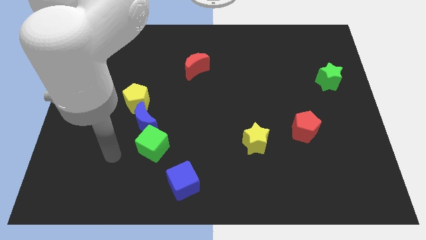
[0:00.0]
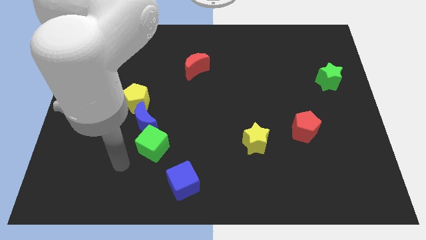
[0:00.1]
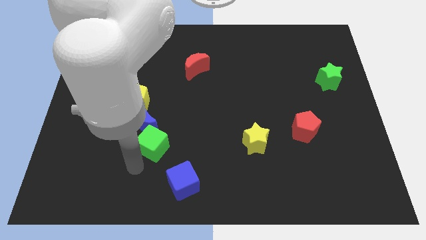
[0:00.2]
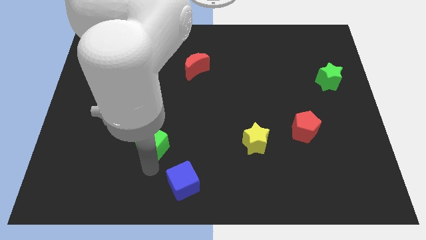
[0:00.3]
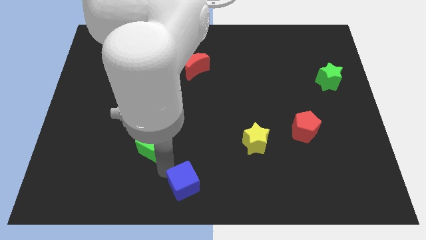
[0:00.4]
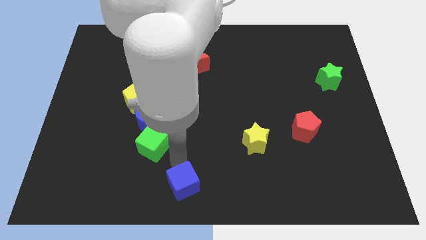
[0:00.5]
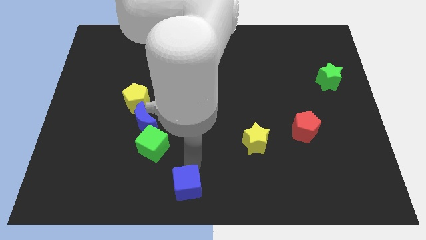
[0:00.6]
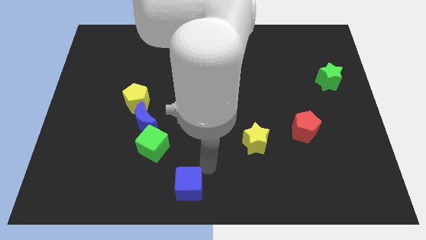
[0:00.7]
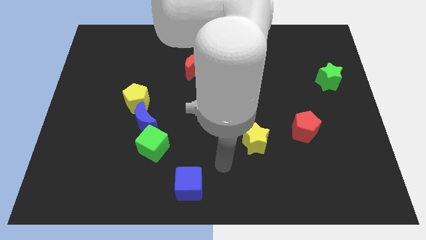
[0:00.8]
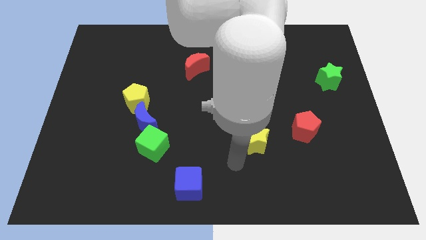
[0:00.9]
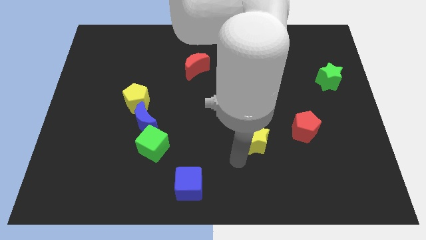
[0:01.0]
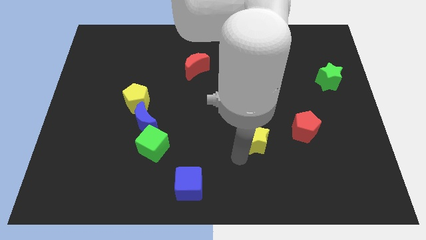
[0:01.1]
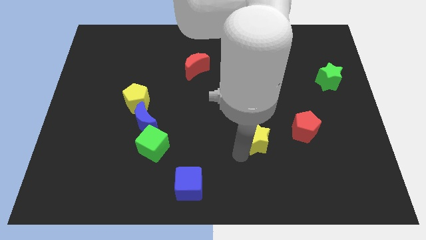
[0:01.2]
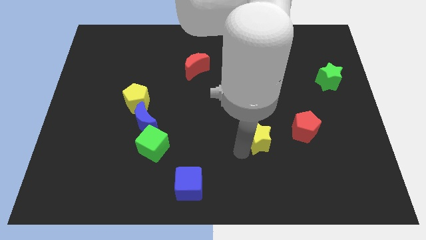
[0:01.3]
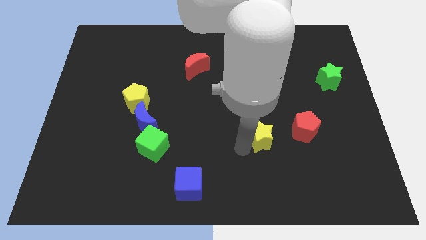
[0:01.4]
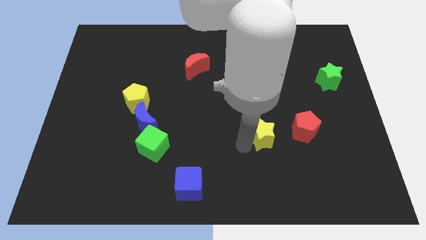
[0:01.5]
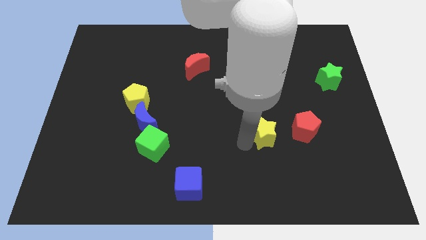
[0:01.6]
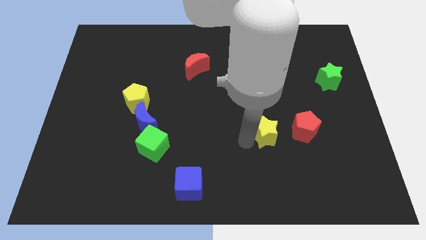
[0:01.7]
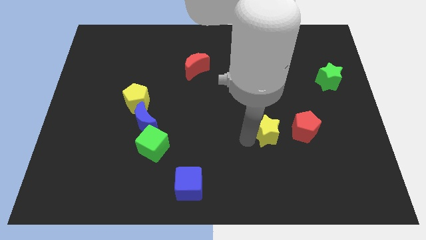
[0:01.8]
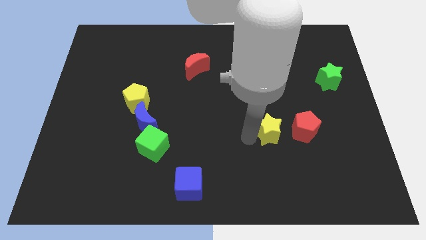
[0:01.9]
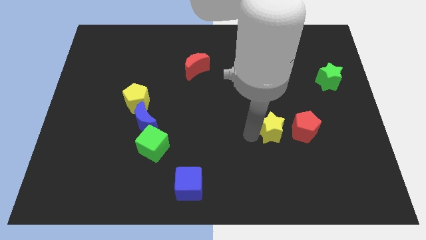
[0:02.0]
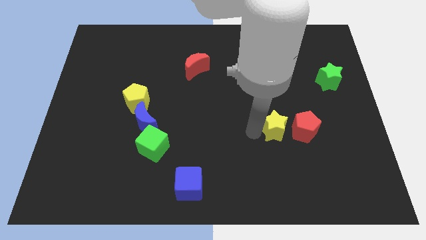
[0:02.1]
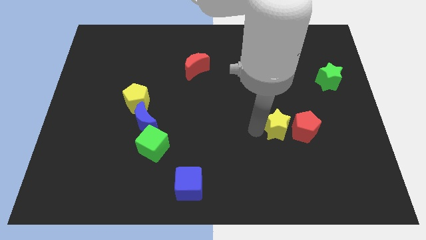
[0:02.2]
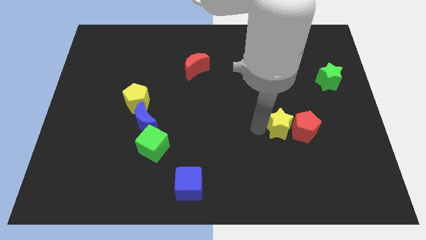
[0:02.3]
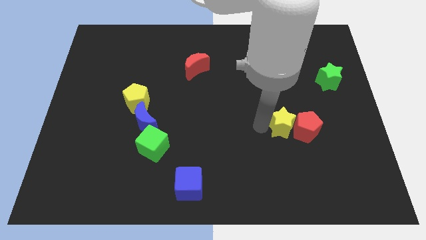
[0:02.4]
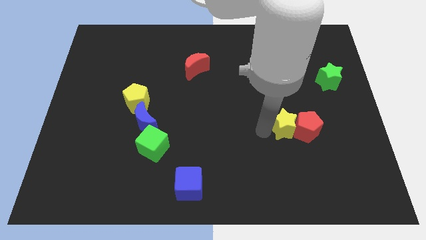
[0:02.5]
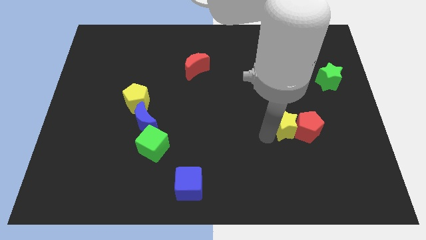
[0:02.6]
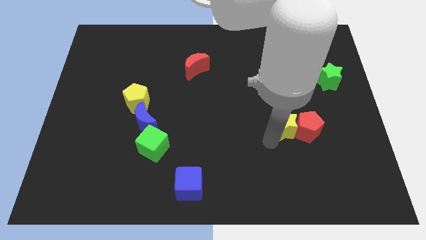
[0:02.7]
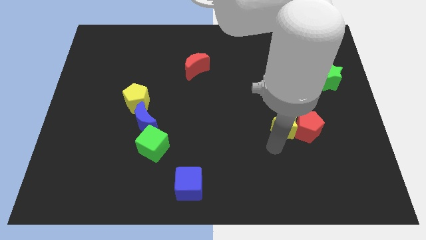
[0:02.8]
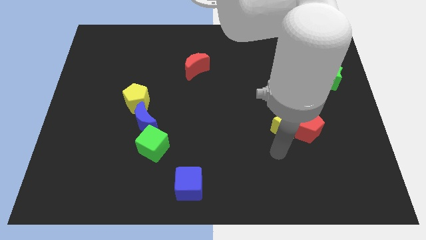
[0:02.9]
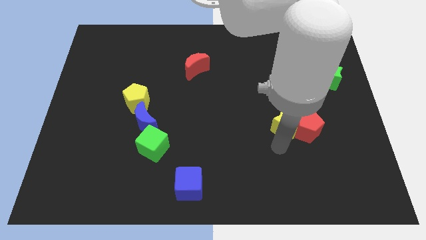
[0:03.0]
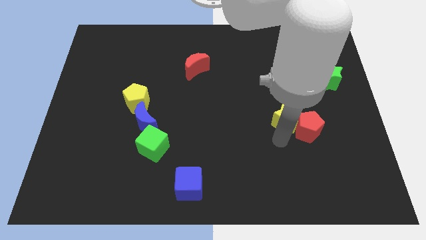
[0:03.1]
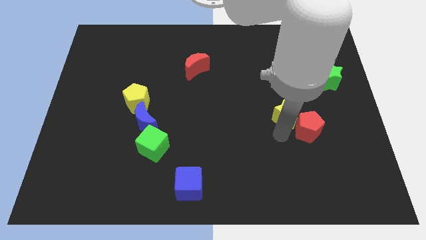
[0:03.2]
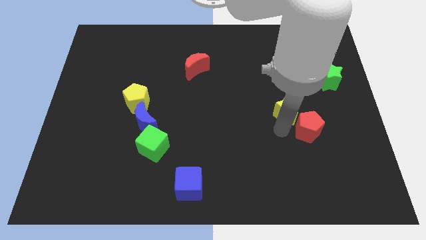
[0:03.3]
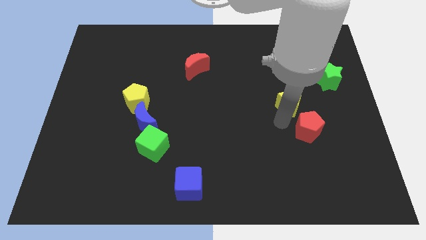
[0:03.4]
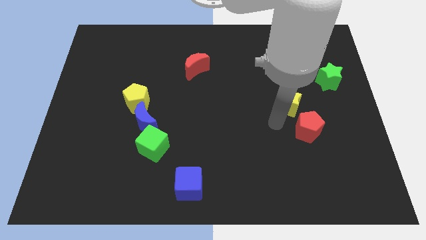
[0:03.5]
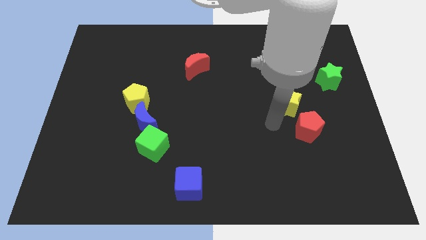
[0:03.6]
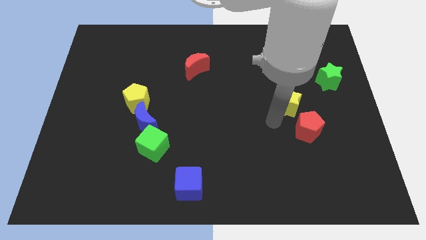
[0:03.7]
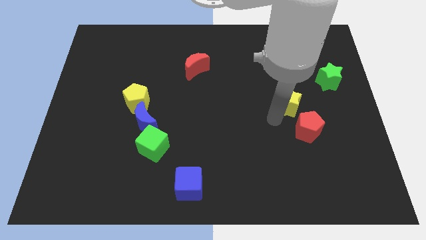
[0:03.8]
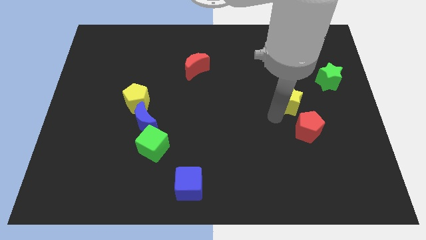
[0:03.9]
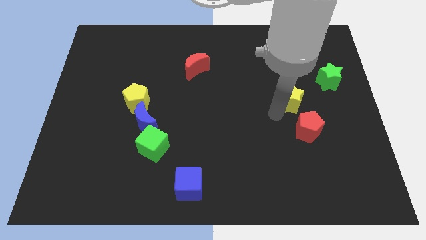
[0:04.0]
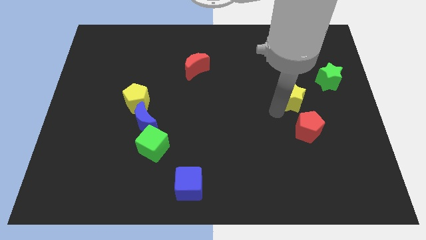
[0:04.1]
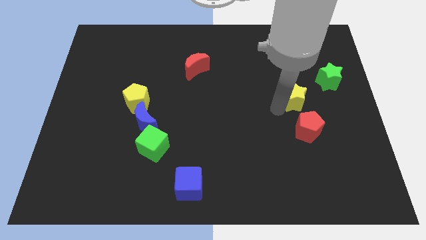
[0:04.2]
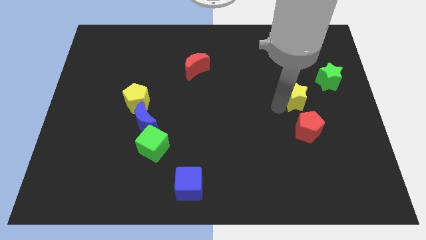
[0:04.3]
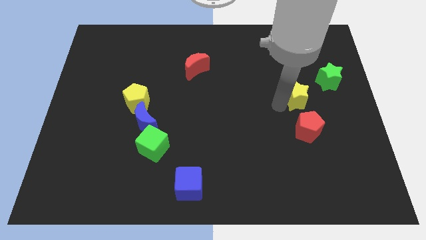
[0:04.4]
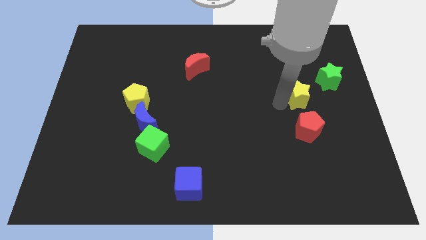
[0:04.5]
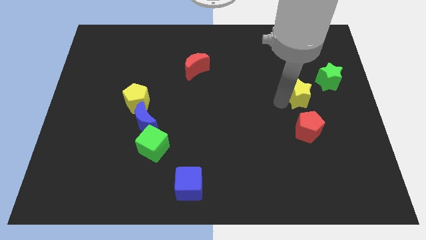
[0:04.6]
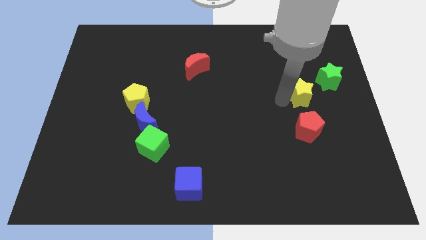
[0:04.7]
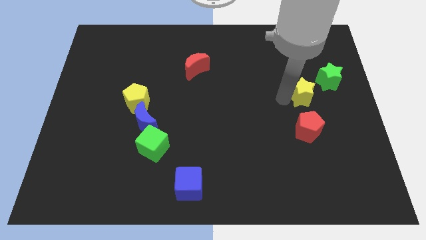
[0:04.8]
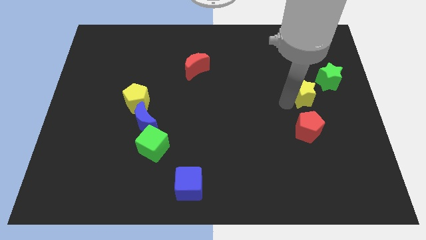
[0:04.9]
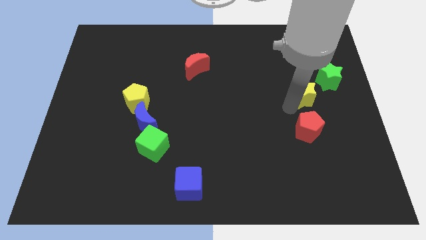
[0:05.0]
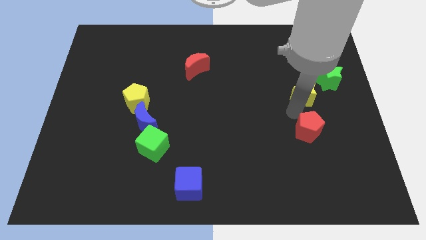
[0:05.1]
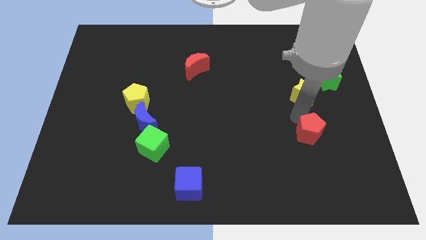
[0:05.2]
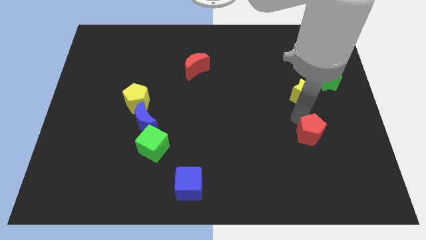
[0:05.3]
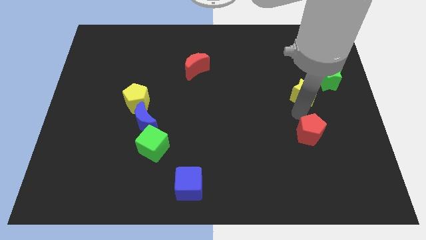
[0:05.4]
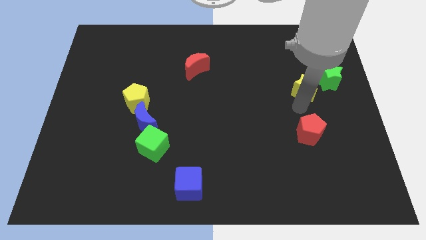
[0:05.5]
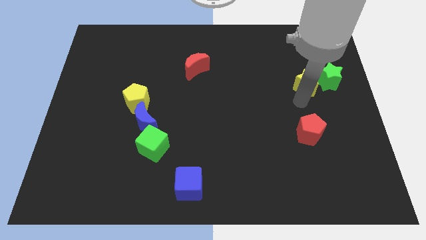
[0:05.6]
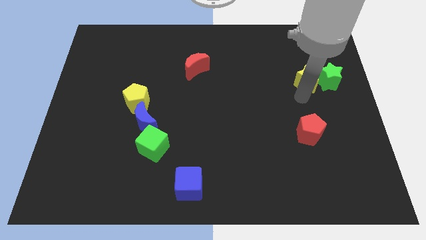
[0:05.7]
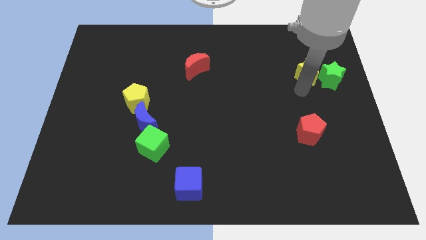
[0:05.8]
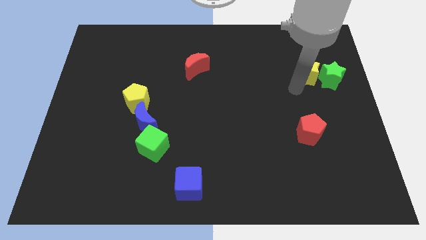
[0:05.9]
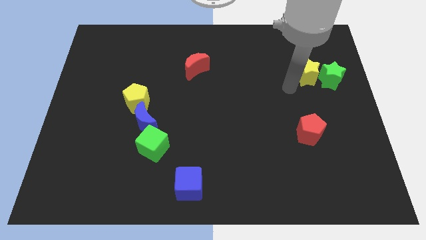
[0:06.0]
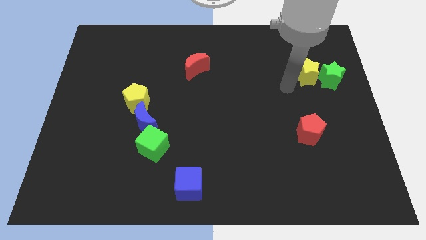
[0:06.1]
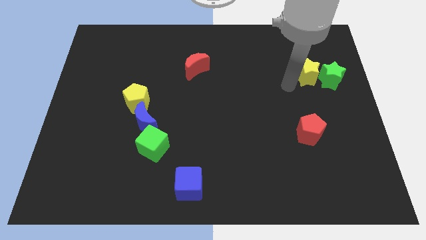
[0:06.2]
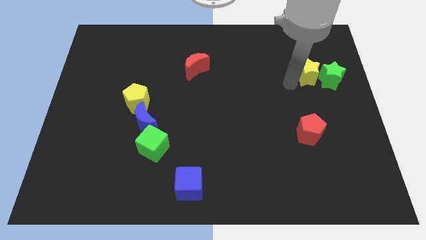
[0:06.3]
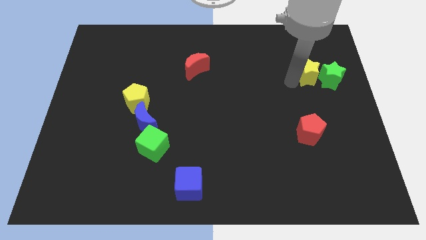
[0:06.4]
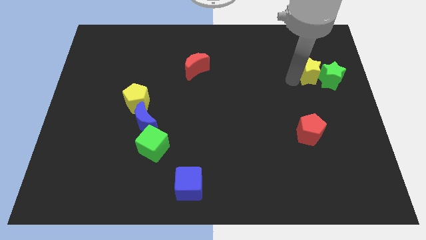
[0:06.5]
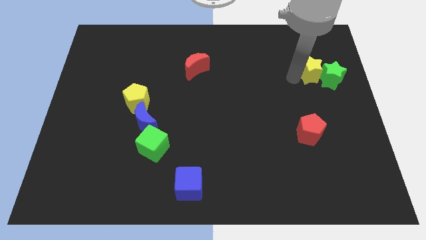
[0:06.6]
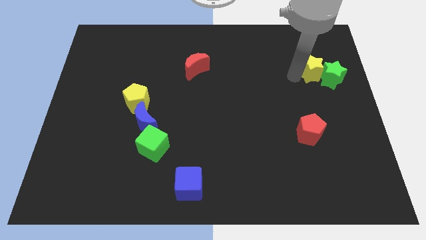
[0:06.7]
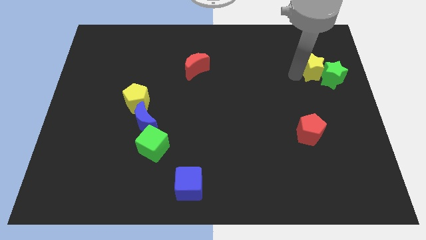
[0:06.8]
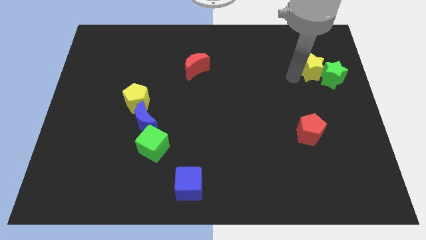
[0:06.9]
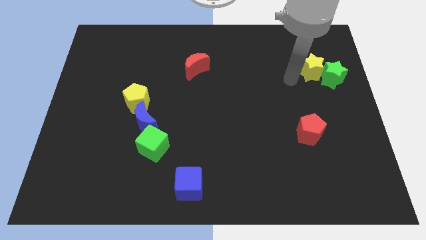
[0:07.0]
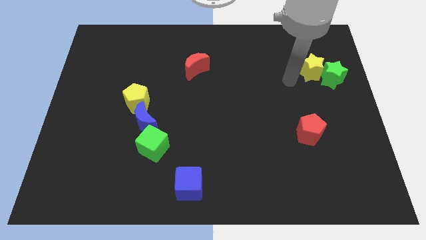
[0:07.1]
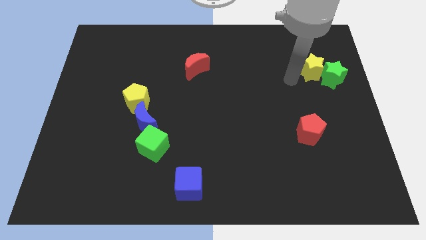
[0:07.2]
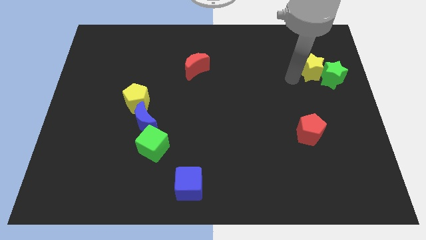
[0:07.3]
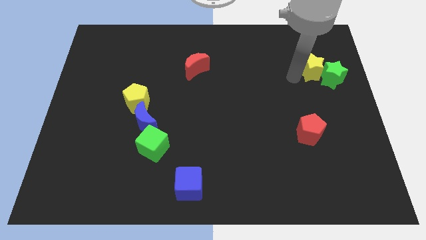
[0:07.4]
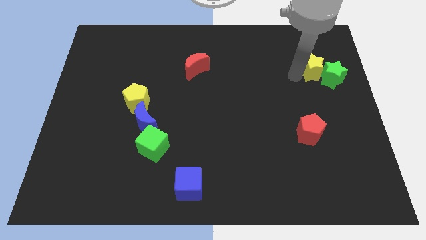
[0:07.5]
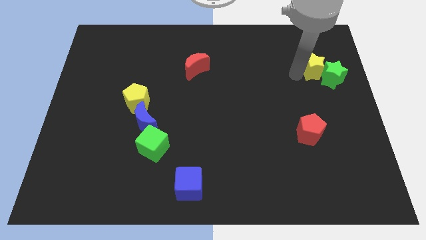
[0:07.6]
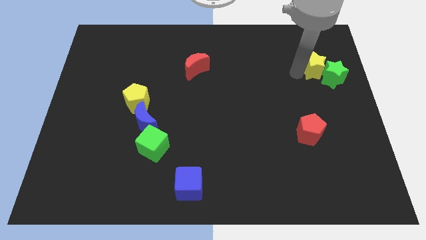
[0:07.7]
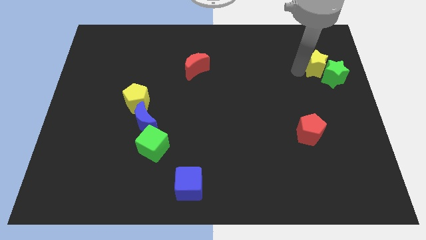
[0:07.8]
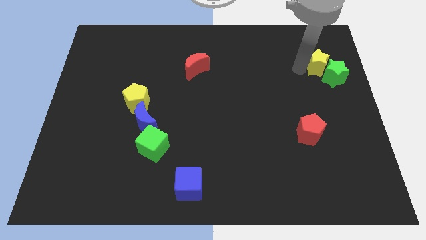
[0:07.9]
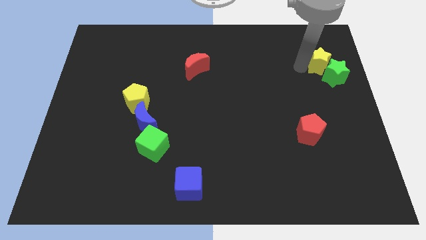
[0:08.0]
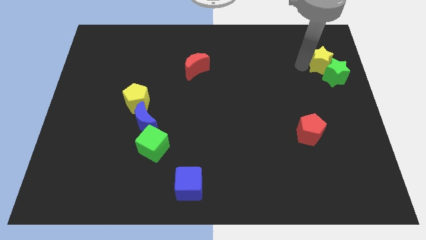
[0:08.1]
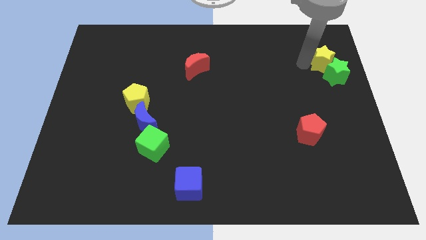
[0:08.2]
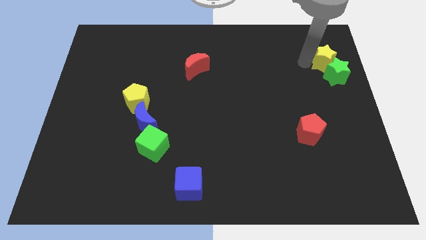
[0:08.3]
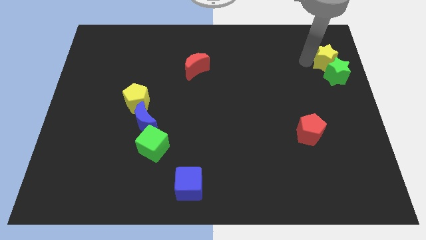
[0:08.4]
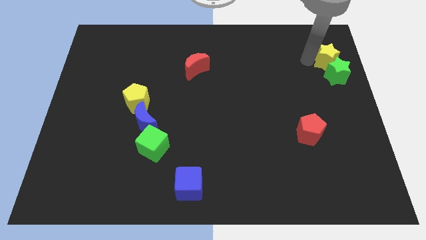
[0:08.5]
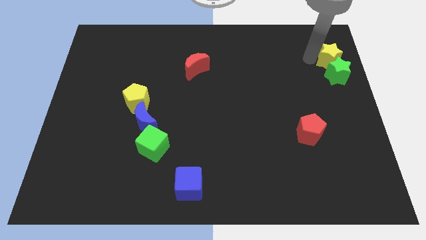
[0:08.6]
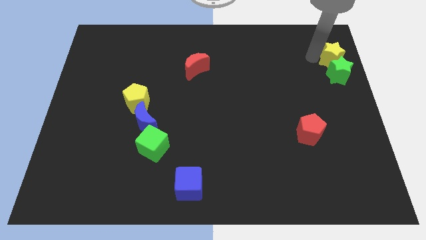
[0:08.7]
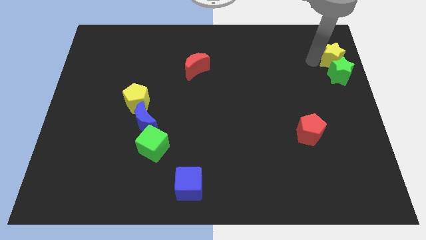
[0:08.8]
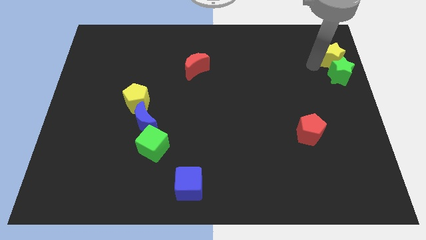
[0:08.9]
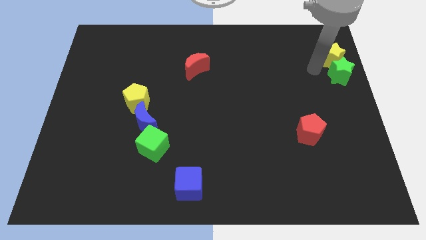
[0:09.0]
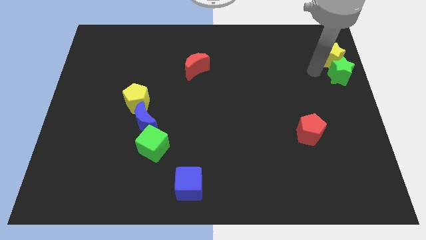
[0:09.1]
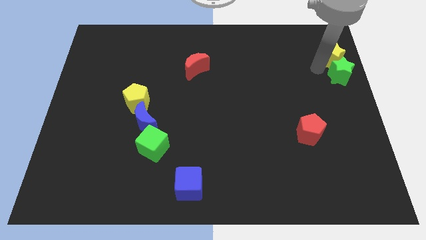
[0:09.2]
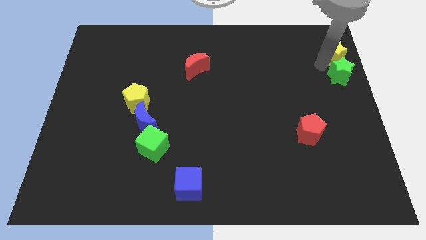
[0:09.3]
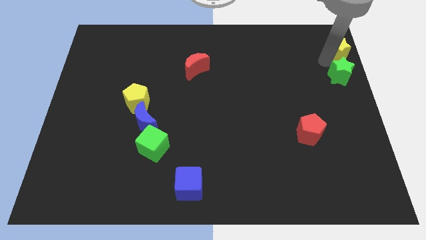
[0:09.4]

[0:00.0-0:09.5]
put the yellow star to the top right
